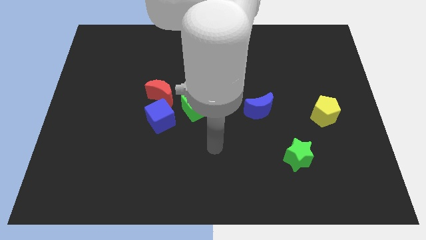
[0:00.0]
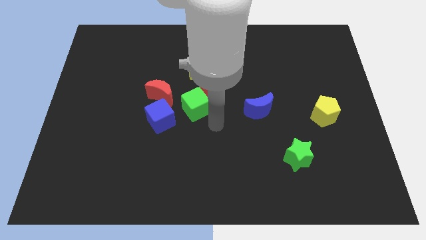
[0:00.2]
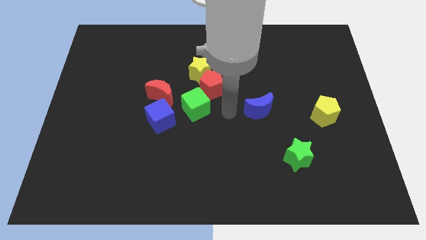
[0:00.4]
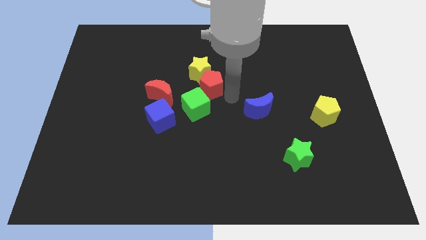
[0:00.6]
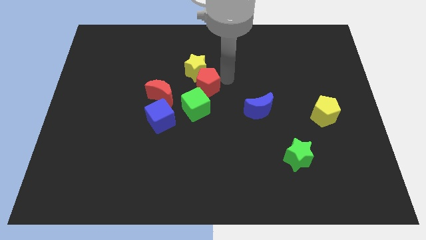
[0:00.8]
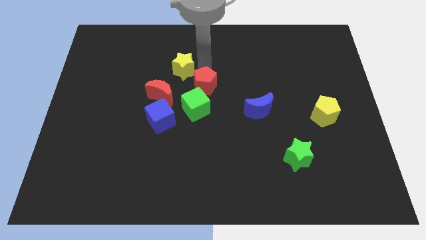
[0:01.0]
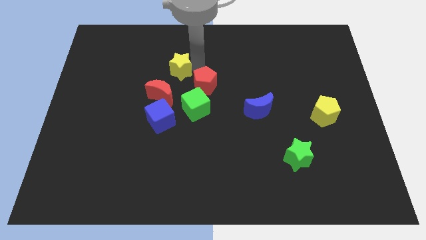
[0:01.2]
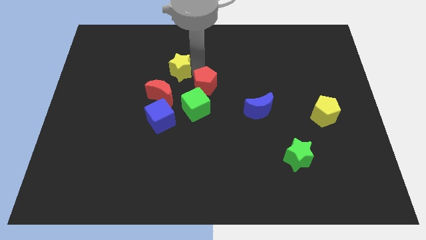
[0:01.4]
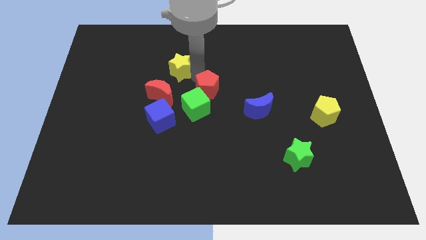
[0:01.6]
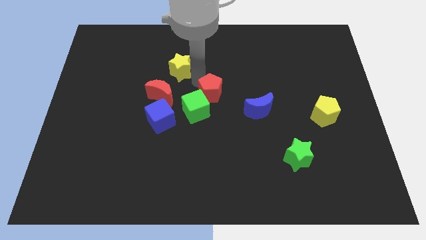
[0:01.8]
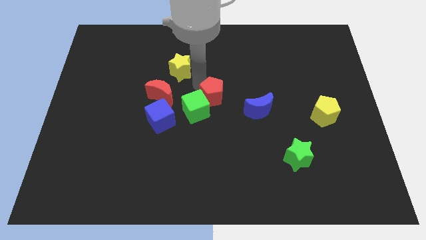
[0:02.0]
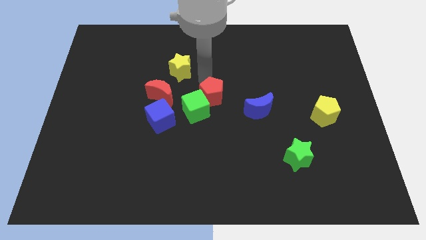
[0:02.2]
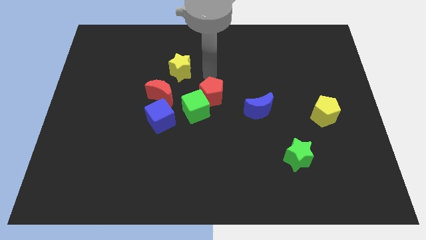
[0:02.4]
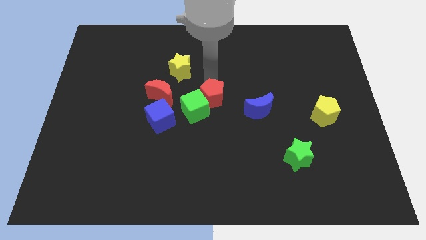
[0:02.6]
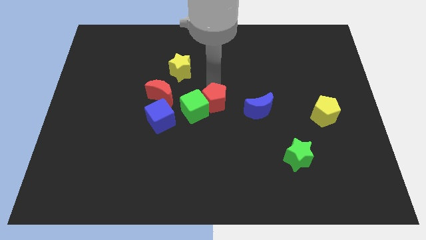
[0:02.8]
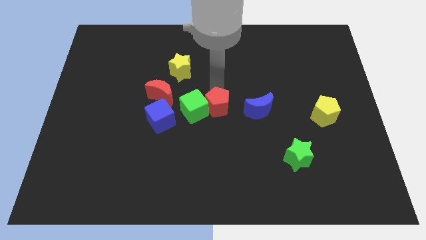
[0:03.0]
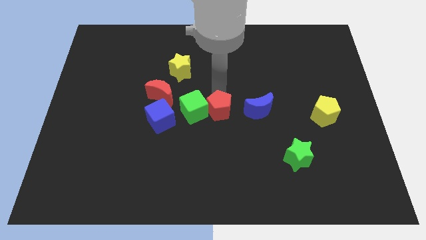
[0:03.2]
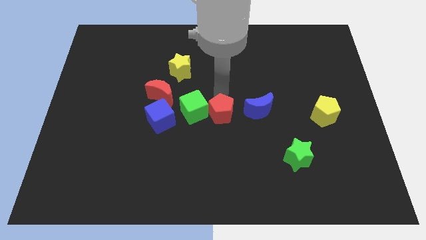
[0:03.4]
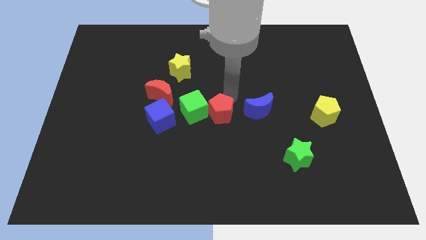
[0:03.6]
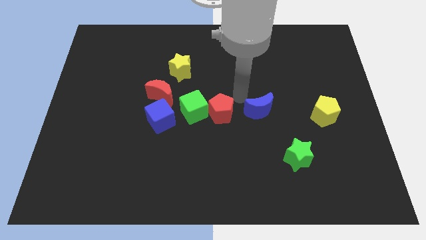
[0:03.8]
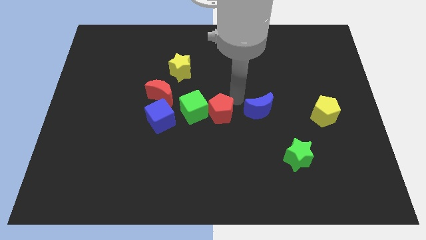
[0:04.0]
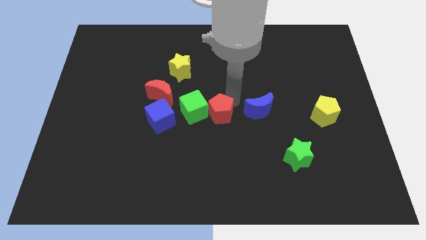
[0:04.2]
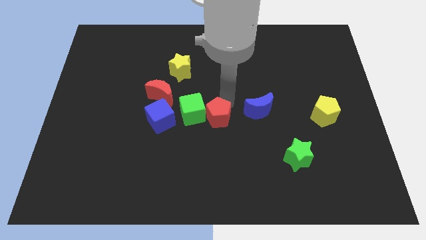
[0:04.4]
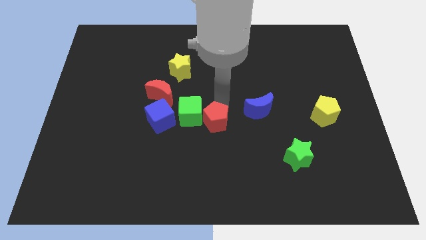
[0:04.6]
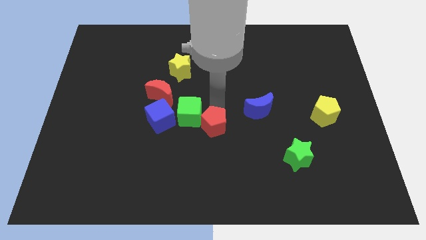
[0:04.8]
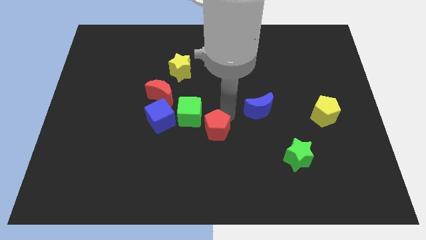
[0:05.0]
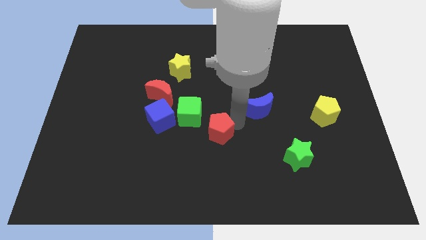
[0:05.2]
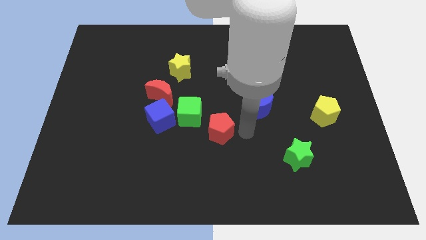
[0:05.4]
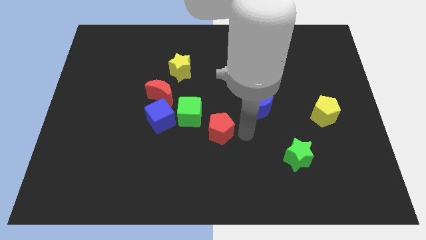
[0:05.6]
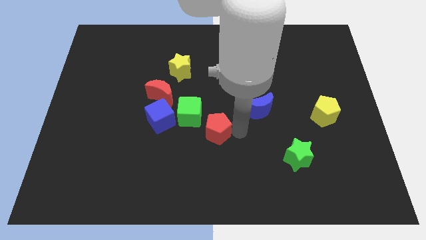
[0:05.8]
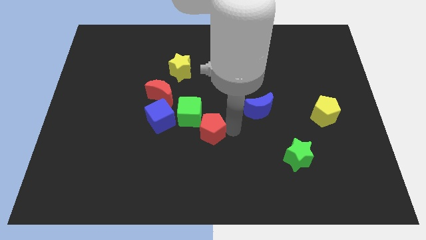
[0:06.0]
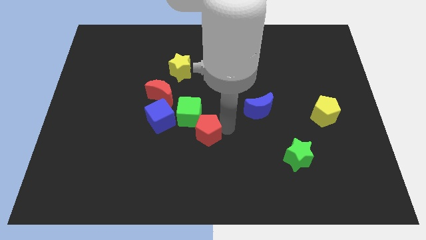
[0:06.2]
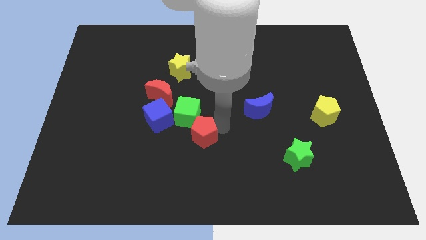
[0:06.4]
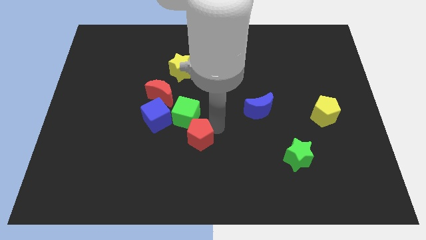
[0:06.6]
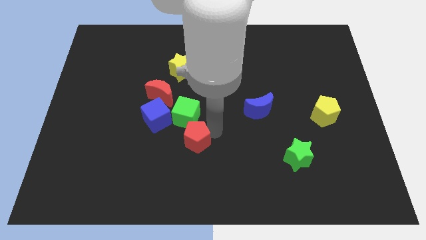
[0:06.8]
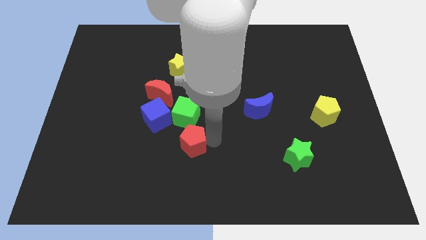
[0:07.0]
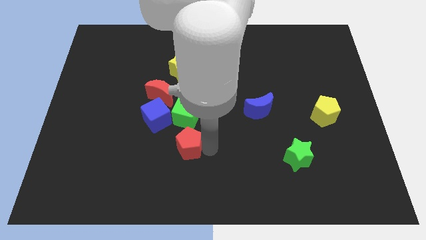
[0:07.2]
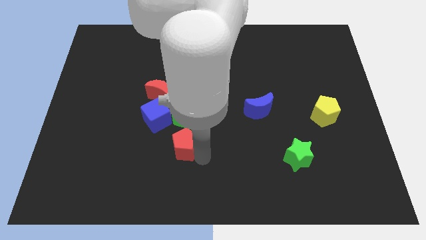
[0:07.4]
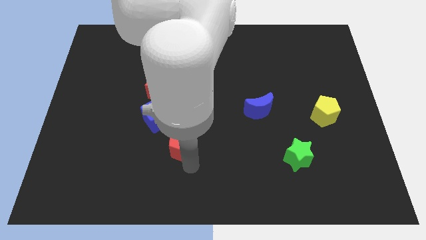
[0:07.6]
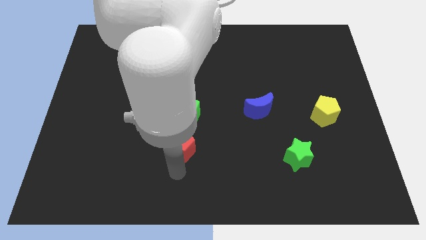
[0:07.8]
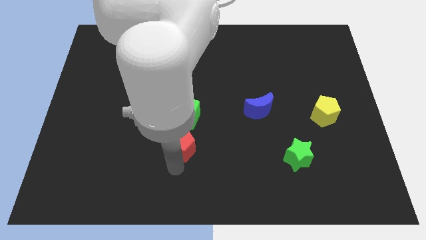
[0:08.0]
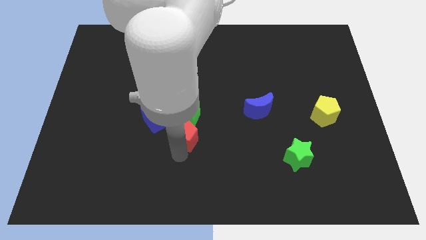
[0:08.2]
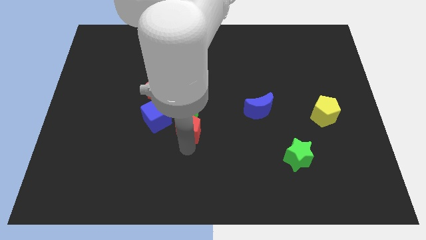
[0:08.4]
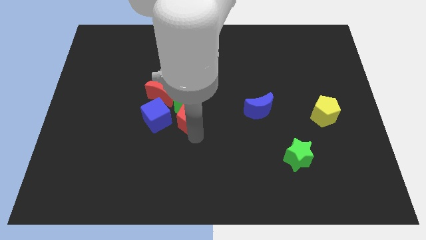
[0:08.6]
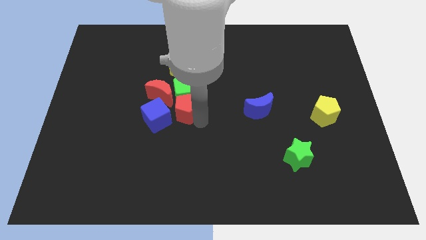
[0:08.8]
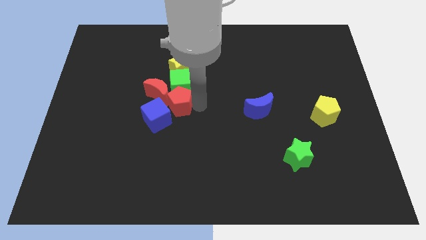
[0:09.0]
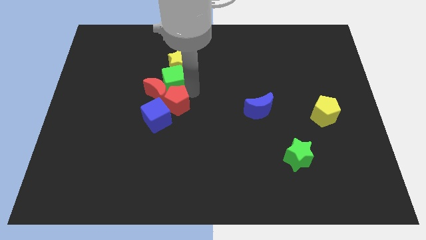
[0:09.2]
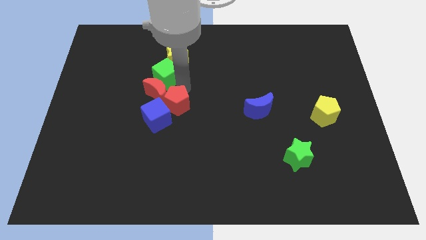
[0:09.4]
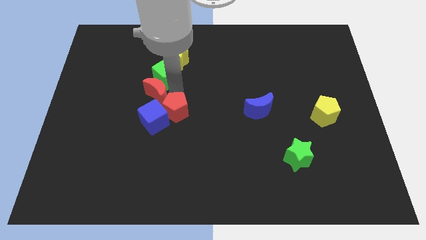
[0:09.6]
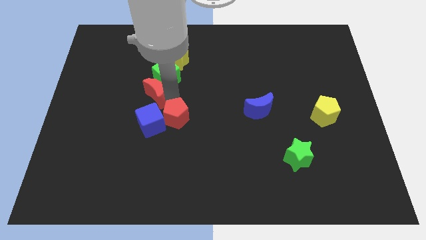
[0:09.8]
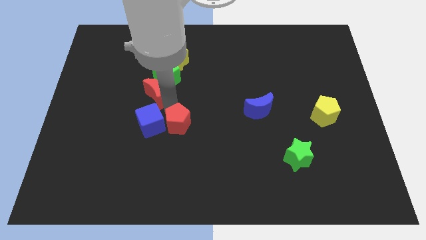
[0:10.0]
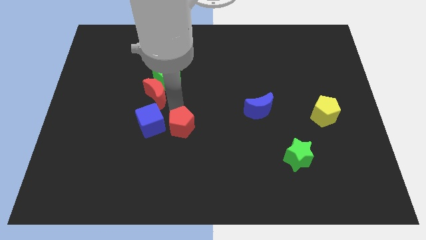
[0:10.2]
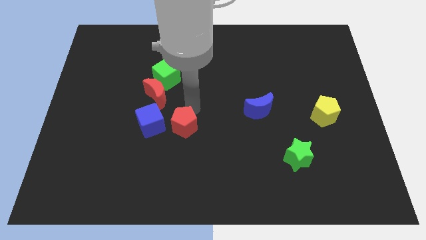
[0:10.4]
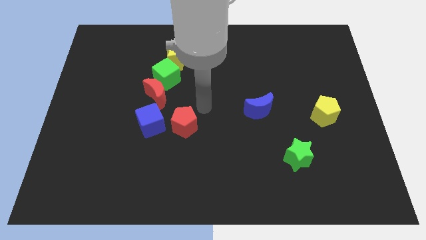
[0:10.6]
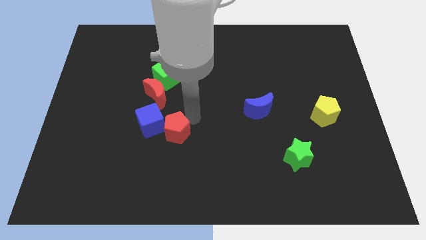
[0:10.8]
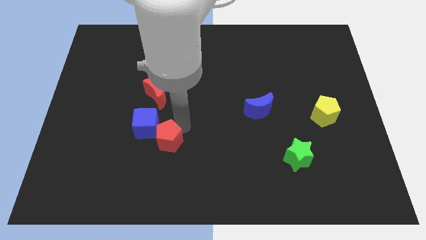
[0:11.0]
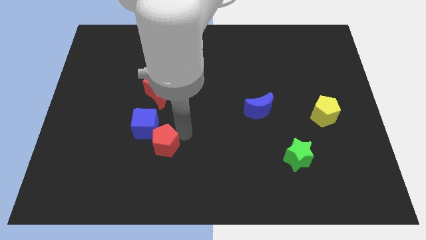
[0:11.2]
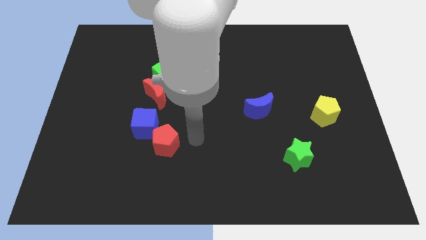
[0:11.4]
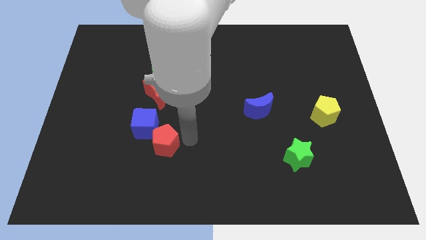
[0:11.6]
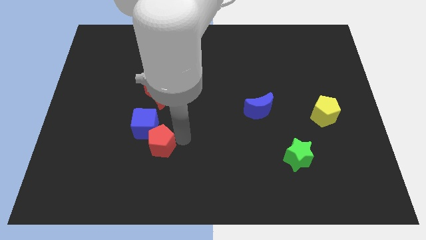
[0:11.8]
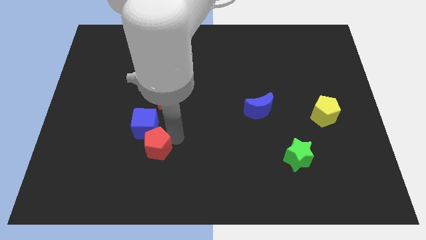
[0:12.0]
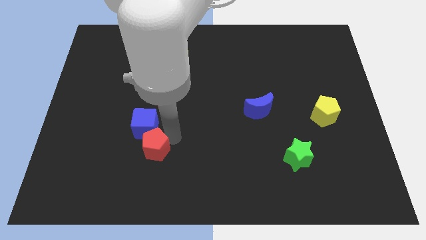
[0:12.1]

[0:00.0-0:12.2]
slide the red pentagon down and left diagonally

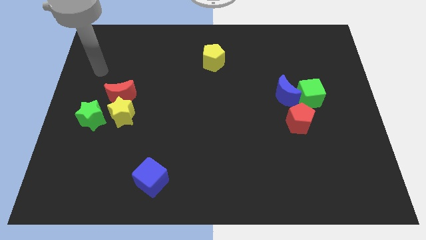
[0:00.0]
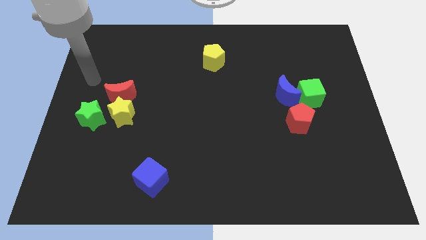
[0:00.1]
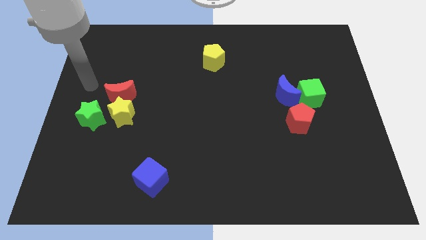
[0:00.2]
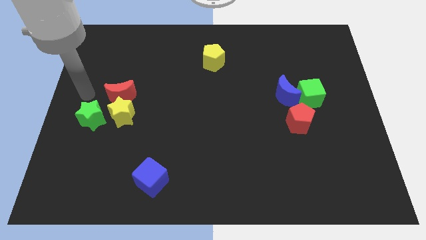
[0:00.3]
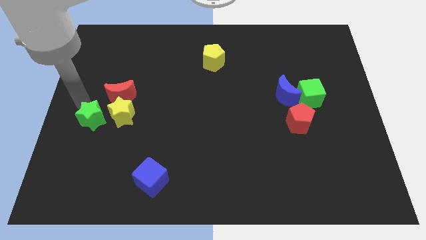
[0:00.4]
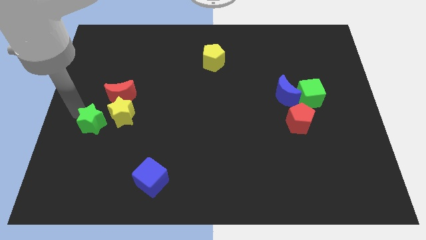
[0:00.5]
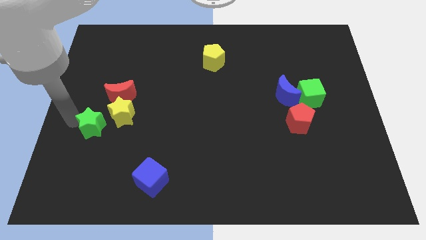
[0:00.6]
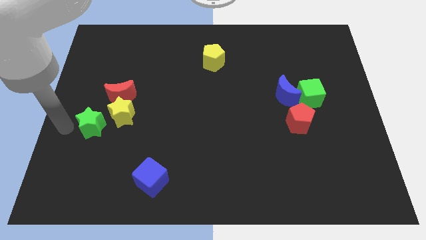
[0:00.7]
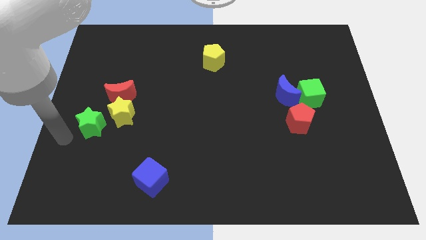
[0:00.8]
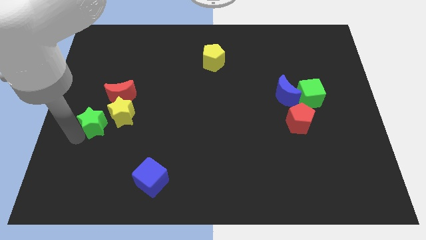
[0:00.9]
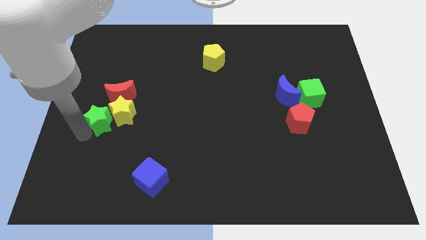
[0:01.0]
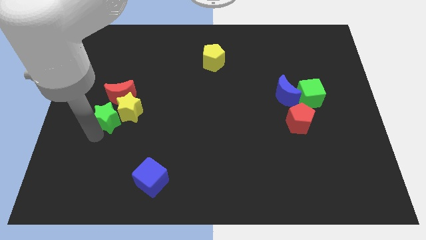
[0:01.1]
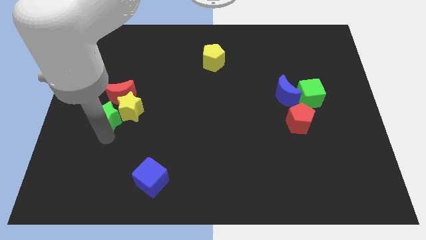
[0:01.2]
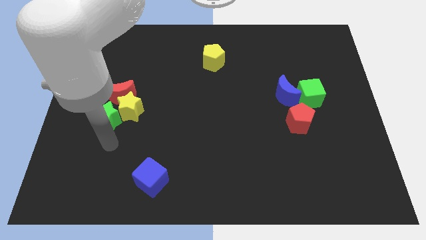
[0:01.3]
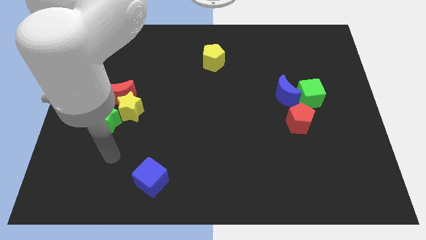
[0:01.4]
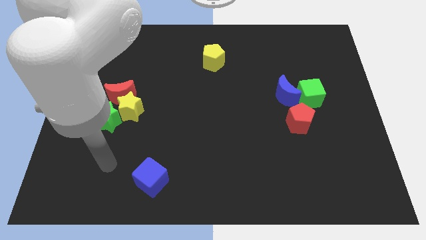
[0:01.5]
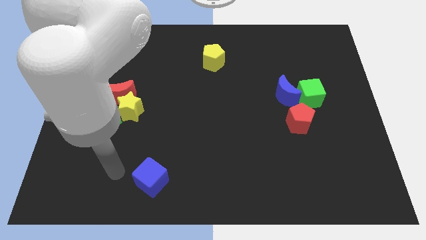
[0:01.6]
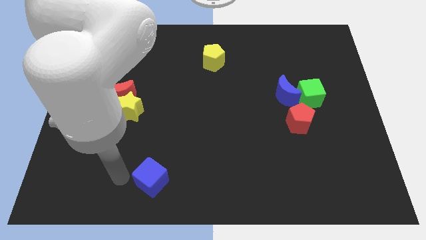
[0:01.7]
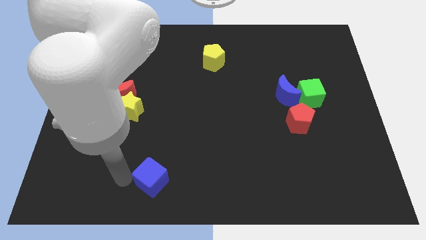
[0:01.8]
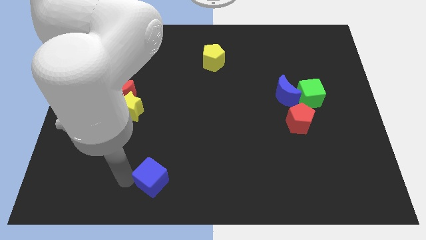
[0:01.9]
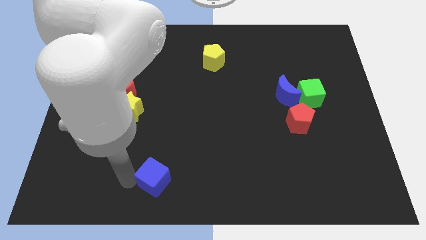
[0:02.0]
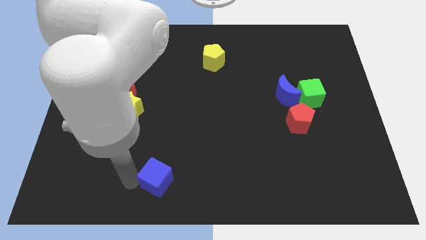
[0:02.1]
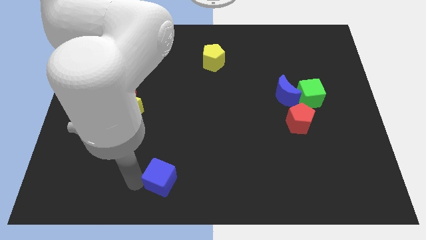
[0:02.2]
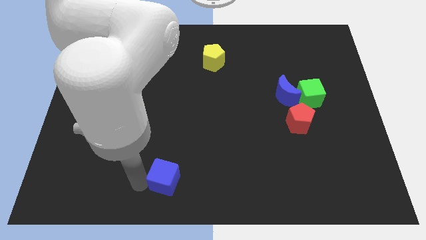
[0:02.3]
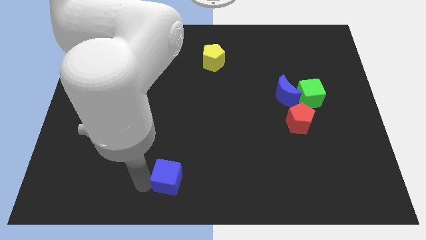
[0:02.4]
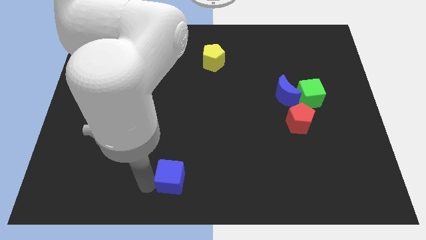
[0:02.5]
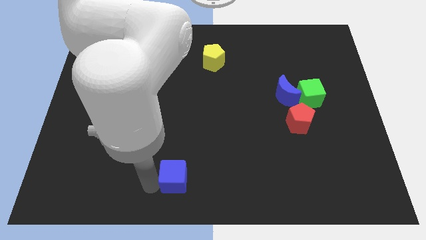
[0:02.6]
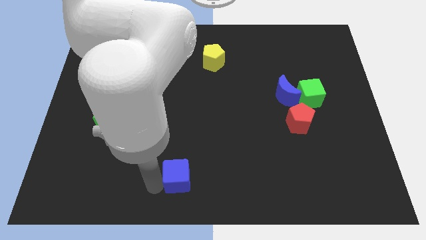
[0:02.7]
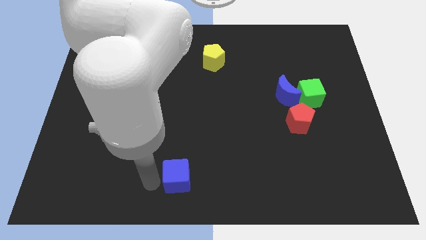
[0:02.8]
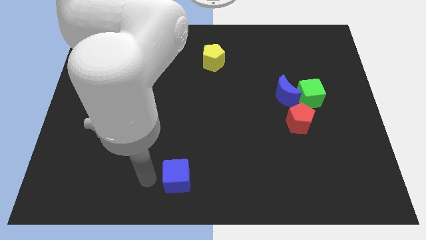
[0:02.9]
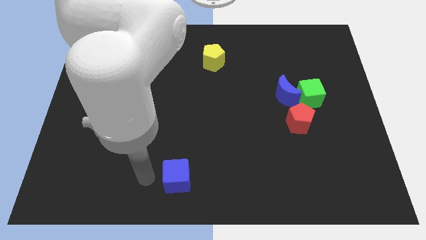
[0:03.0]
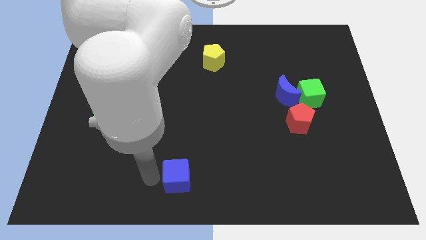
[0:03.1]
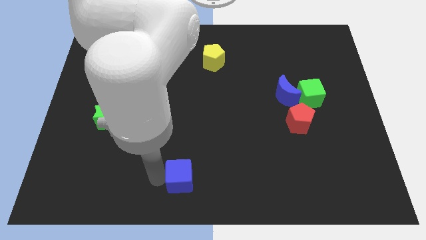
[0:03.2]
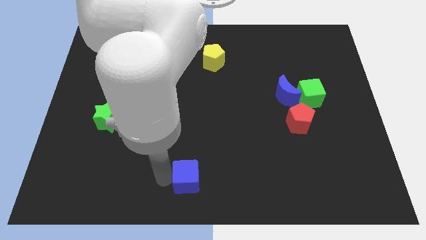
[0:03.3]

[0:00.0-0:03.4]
move the blue cube to the right somewhat
